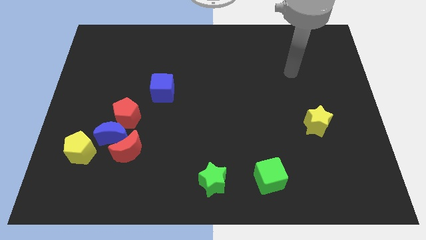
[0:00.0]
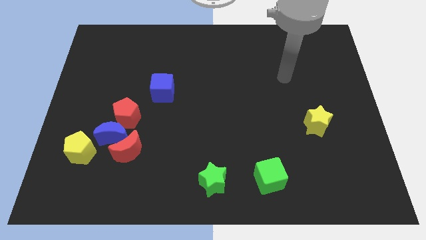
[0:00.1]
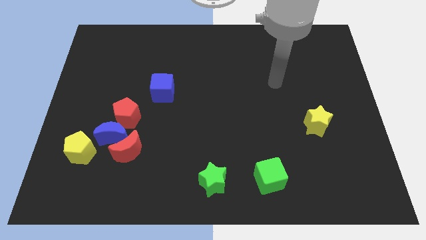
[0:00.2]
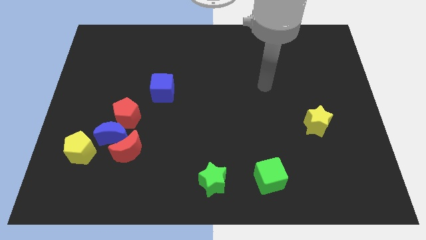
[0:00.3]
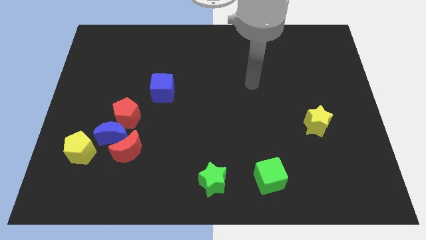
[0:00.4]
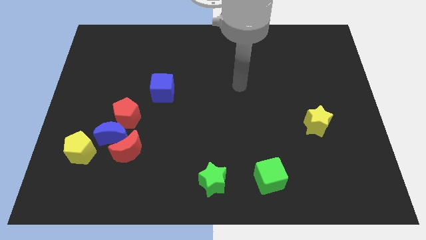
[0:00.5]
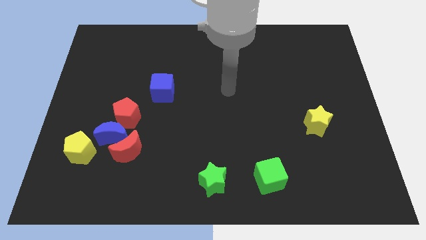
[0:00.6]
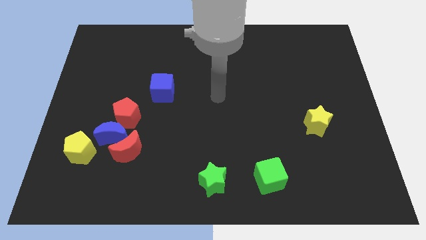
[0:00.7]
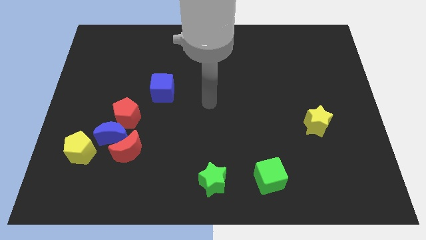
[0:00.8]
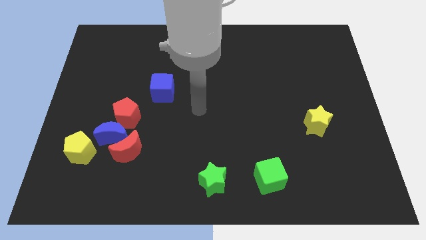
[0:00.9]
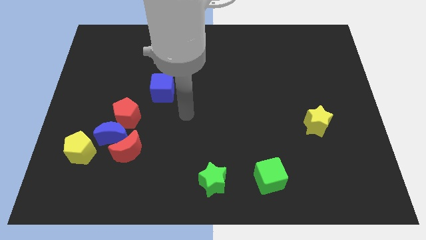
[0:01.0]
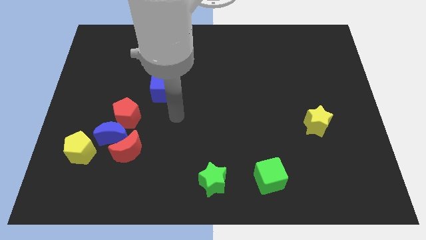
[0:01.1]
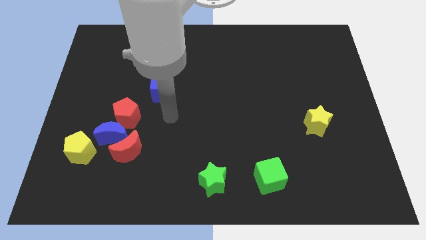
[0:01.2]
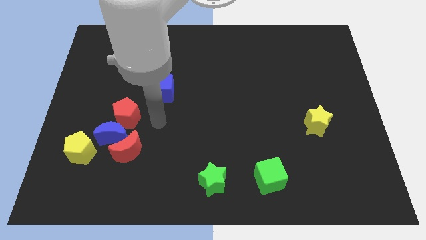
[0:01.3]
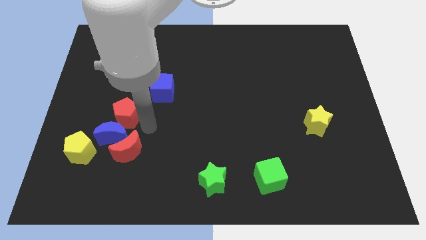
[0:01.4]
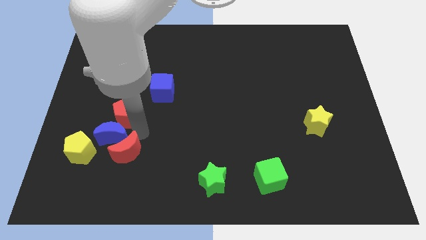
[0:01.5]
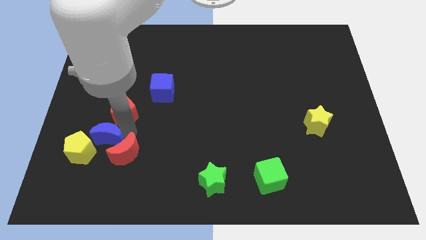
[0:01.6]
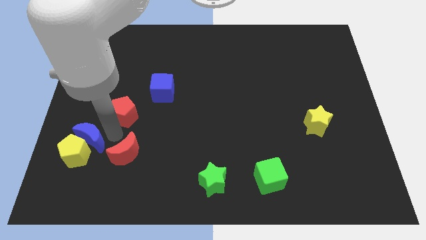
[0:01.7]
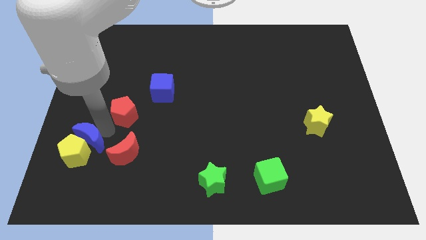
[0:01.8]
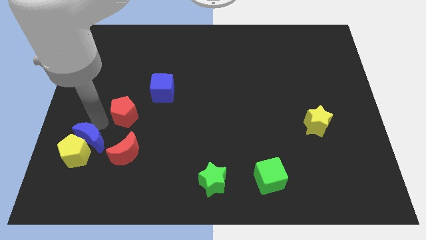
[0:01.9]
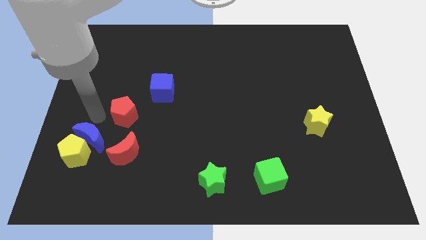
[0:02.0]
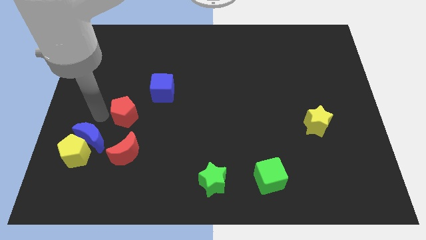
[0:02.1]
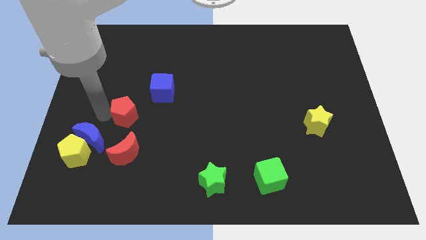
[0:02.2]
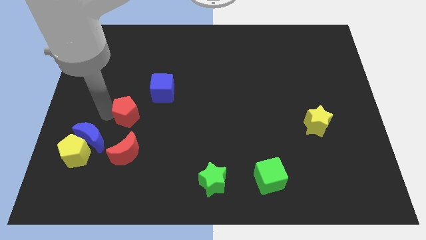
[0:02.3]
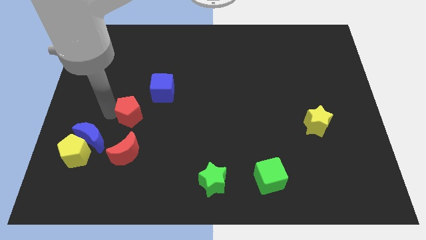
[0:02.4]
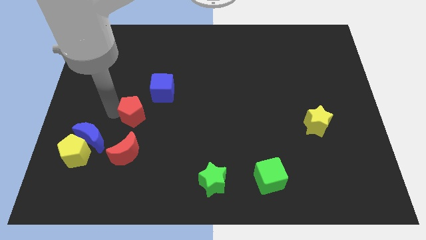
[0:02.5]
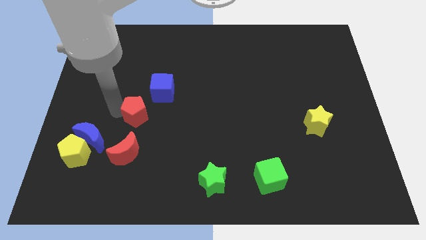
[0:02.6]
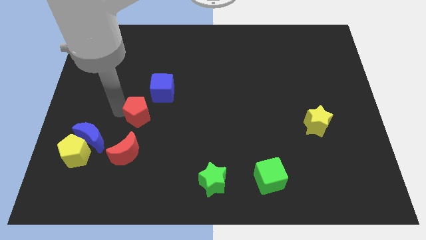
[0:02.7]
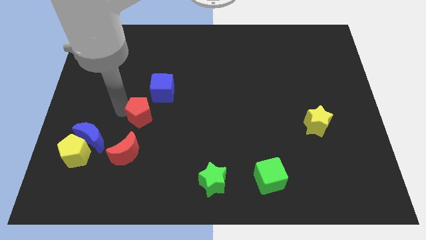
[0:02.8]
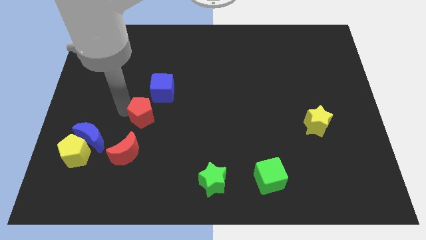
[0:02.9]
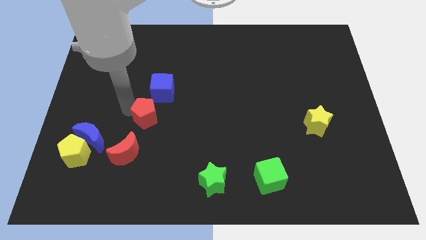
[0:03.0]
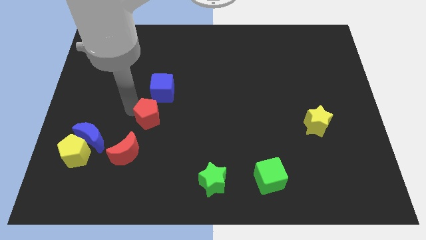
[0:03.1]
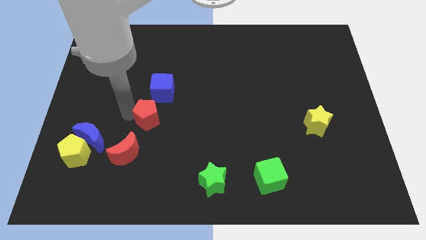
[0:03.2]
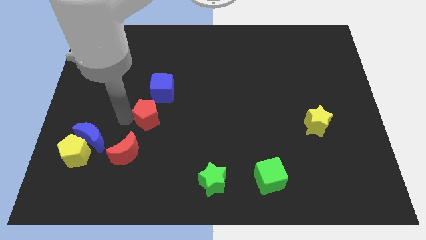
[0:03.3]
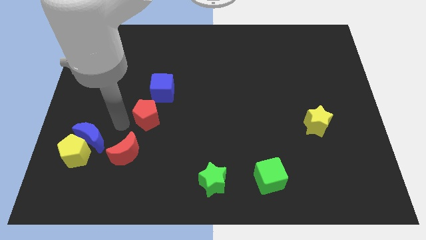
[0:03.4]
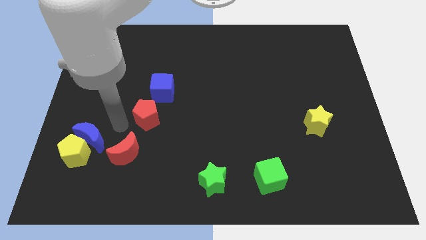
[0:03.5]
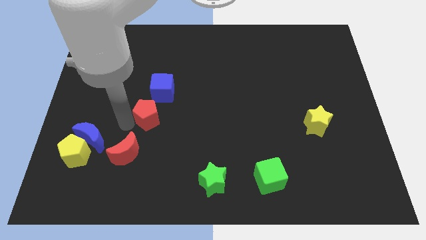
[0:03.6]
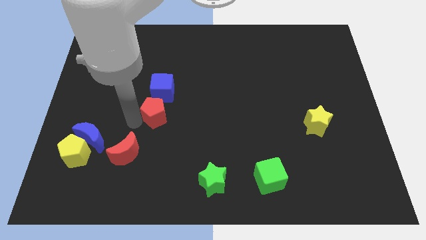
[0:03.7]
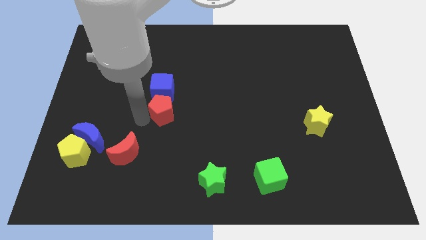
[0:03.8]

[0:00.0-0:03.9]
slightly move the red pentagon to the right

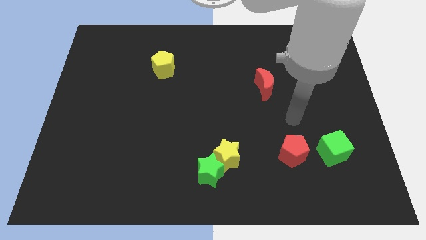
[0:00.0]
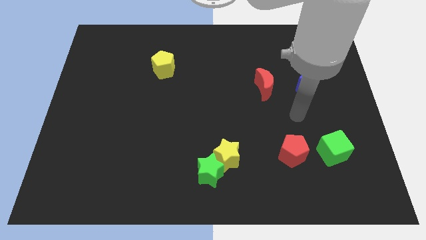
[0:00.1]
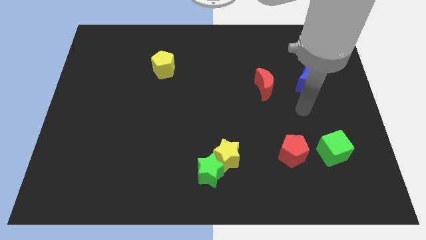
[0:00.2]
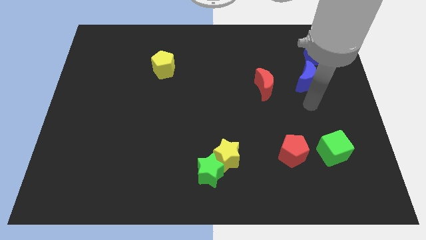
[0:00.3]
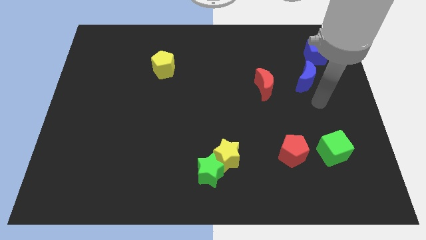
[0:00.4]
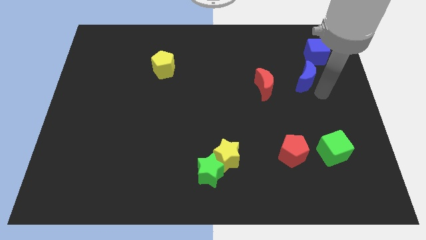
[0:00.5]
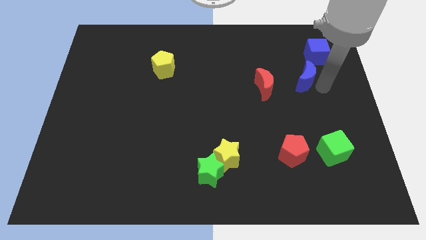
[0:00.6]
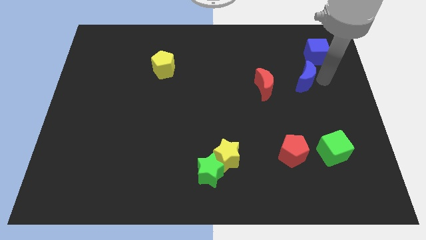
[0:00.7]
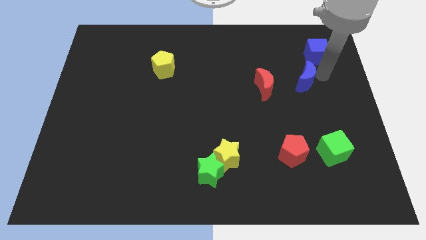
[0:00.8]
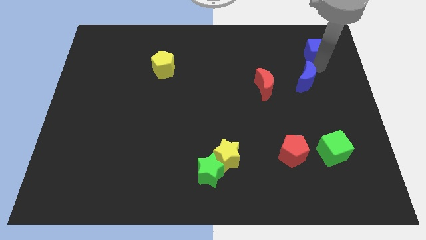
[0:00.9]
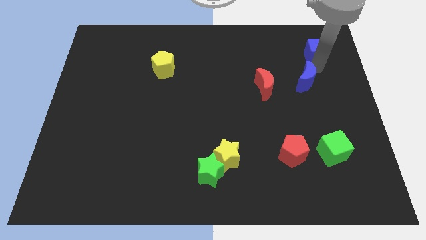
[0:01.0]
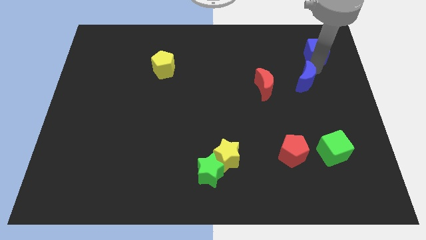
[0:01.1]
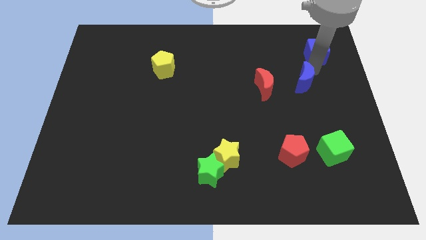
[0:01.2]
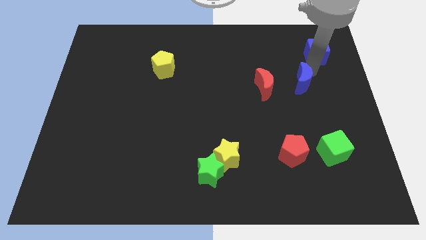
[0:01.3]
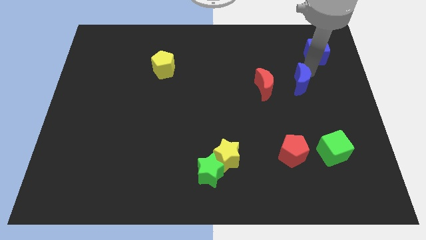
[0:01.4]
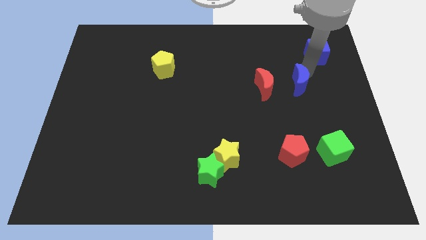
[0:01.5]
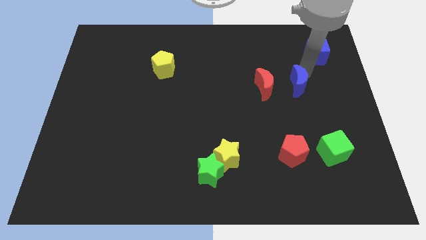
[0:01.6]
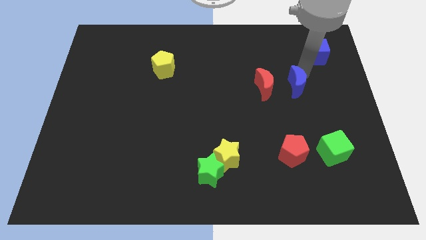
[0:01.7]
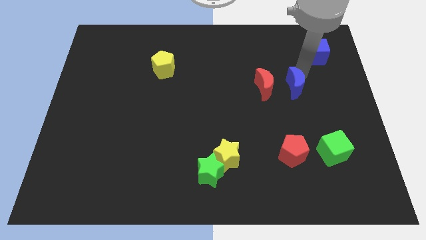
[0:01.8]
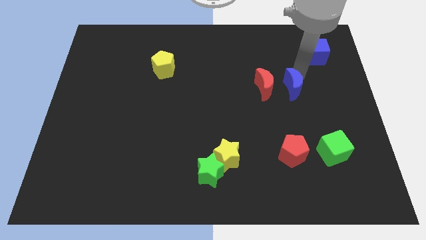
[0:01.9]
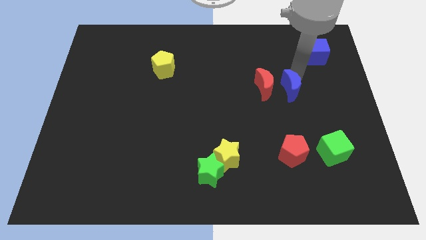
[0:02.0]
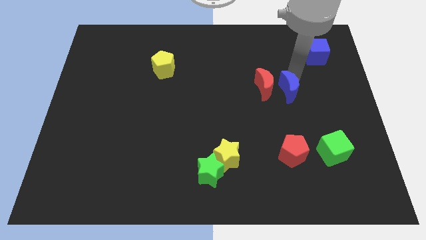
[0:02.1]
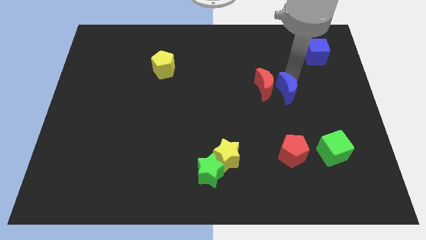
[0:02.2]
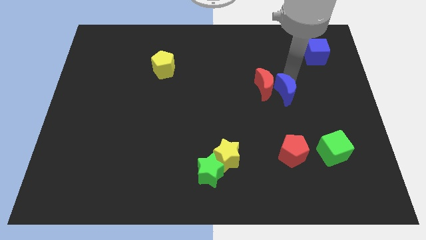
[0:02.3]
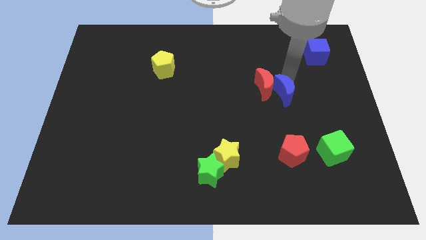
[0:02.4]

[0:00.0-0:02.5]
slightly move the blue moon diagonally down and left

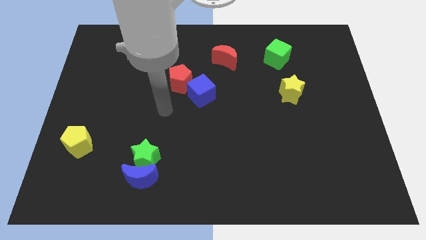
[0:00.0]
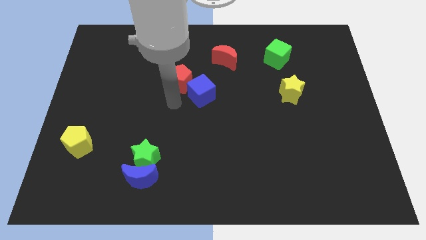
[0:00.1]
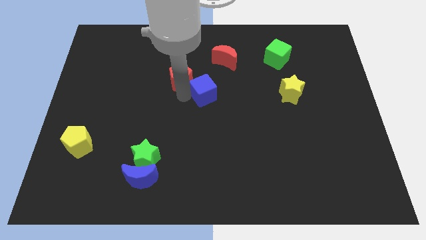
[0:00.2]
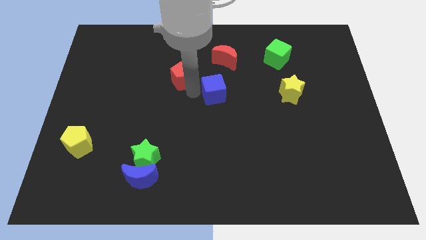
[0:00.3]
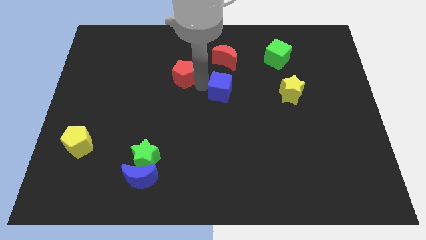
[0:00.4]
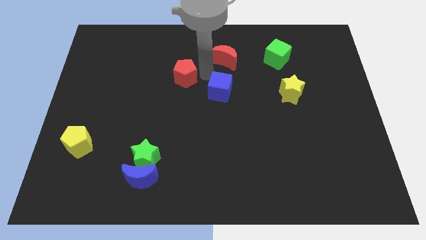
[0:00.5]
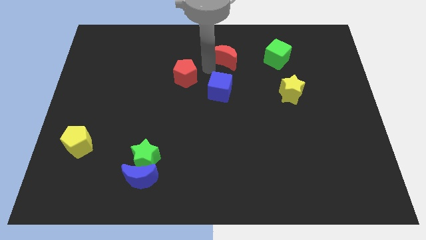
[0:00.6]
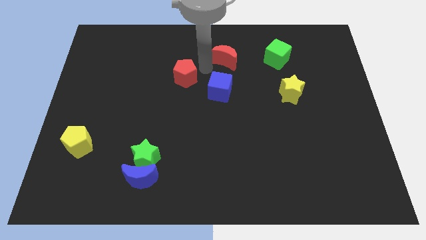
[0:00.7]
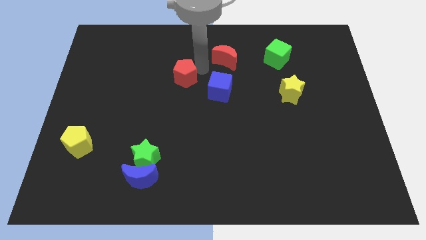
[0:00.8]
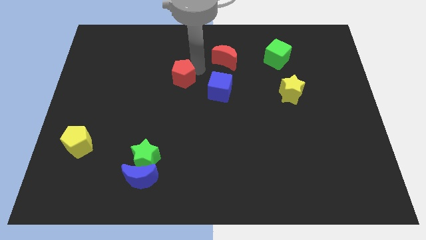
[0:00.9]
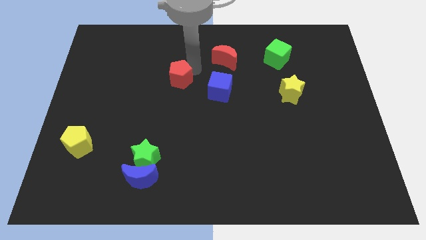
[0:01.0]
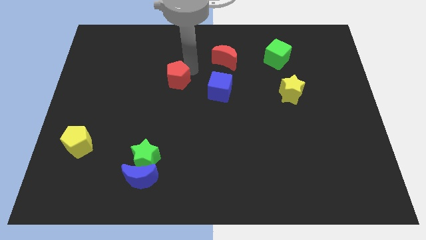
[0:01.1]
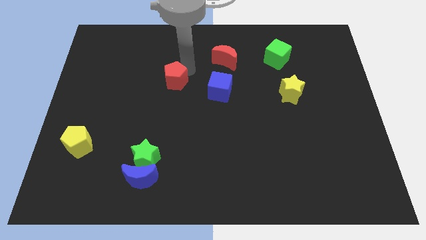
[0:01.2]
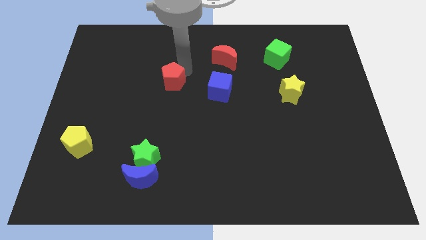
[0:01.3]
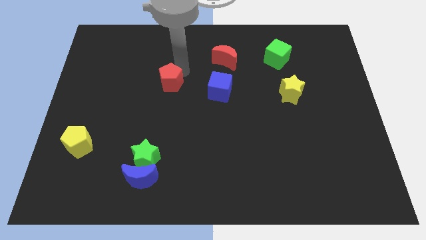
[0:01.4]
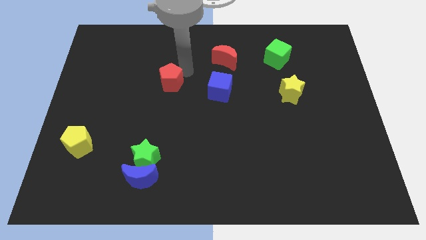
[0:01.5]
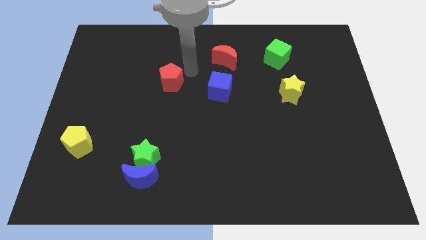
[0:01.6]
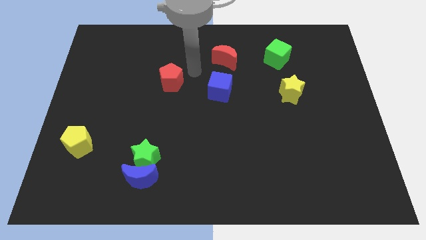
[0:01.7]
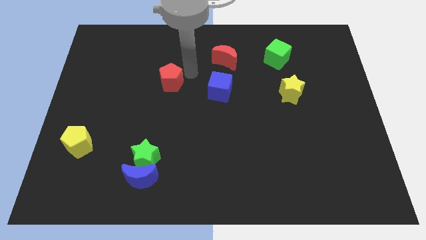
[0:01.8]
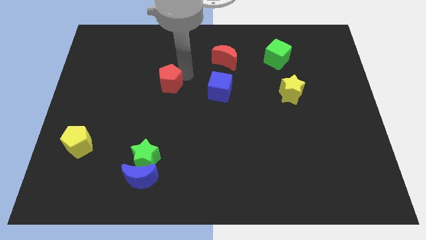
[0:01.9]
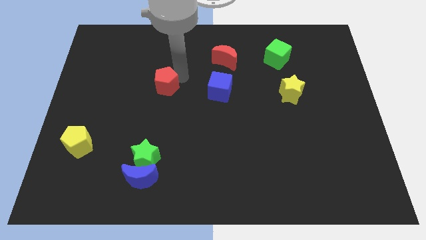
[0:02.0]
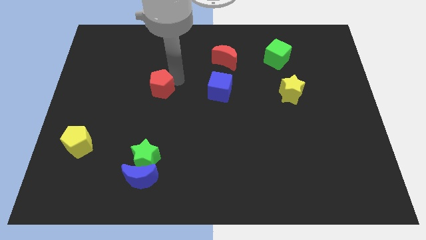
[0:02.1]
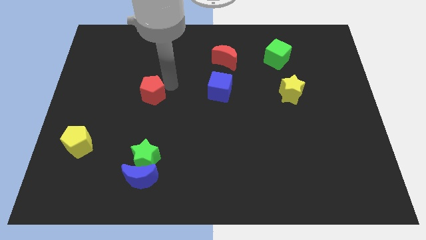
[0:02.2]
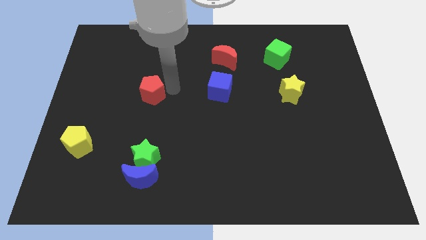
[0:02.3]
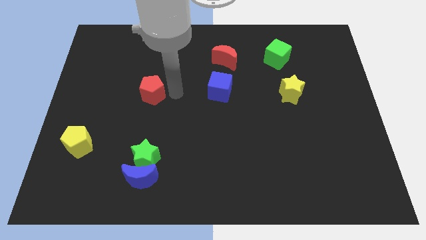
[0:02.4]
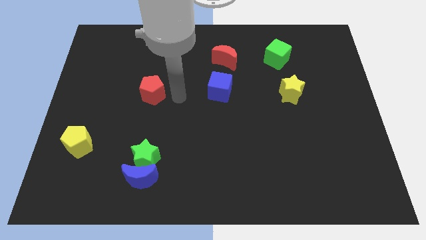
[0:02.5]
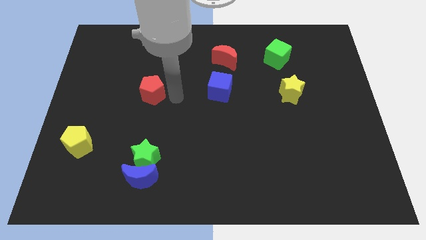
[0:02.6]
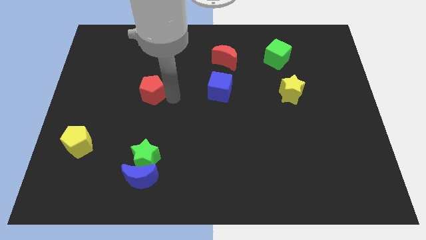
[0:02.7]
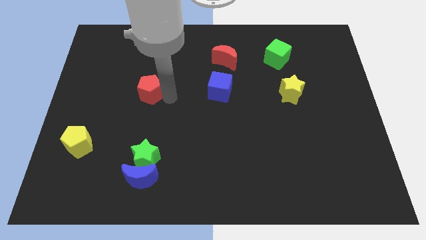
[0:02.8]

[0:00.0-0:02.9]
push the red pentagon to the left a little
